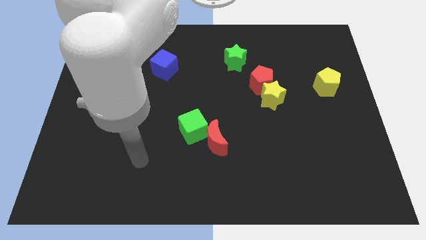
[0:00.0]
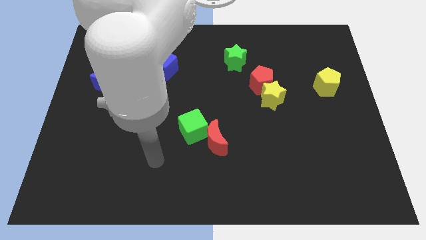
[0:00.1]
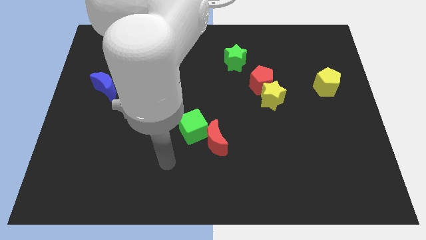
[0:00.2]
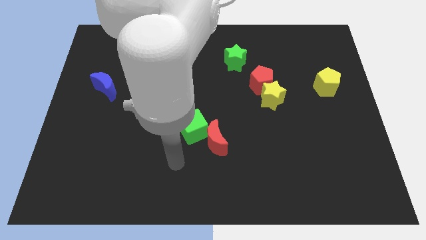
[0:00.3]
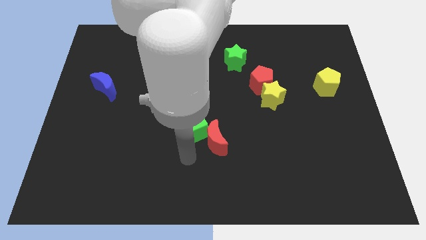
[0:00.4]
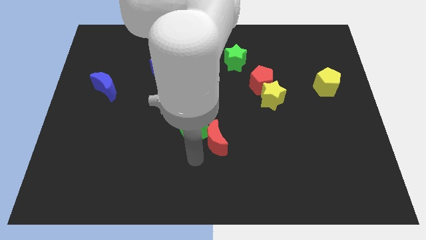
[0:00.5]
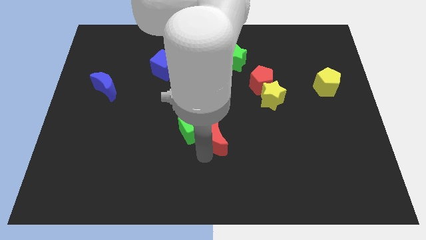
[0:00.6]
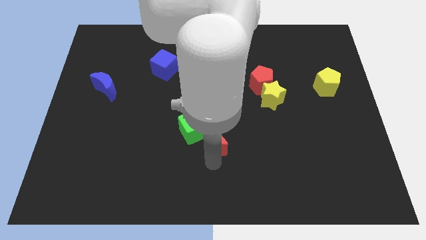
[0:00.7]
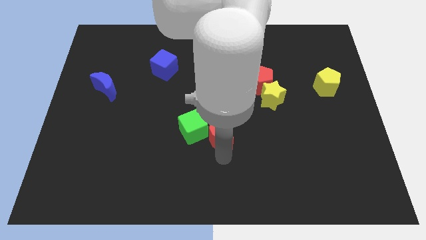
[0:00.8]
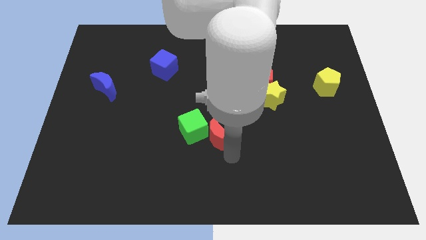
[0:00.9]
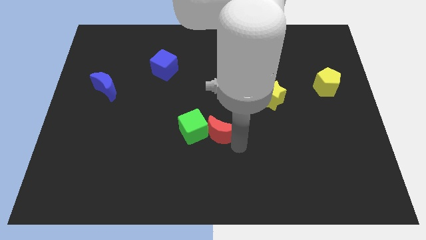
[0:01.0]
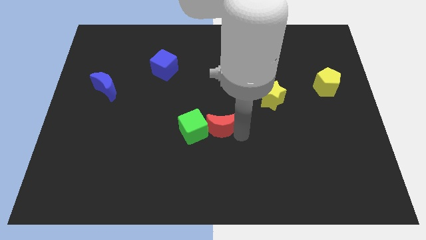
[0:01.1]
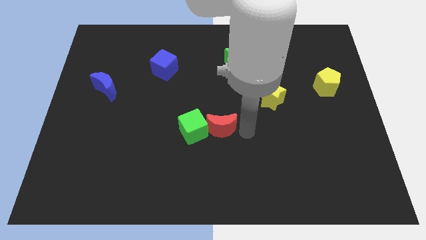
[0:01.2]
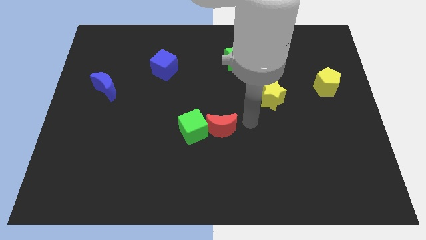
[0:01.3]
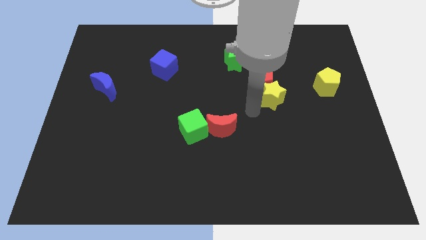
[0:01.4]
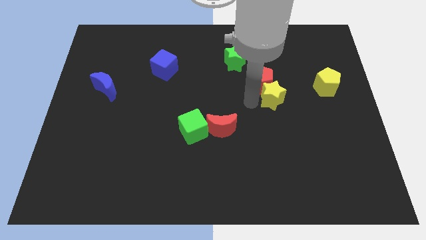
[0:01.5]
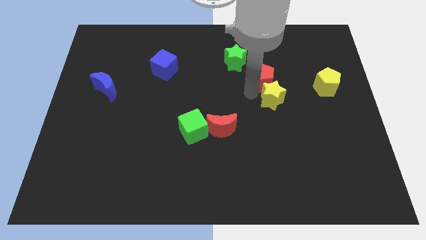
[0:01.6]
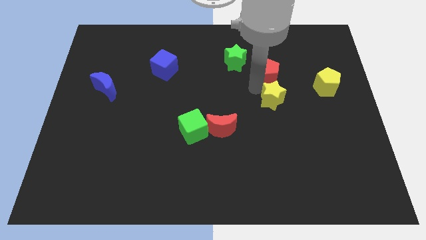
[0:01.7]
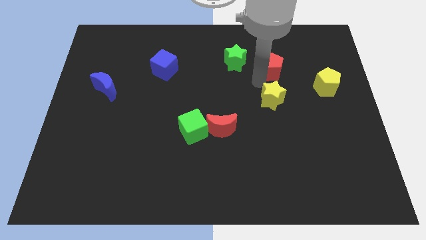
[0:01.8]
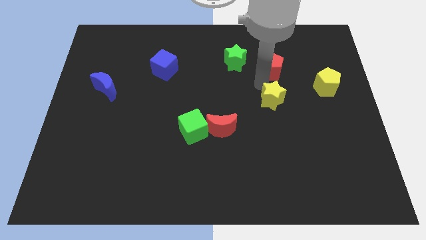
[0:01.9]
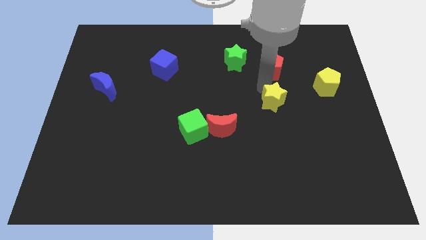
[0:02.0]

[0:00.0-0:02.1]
pull the yellow star apart from the red pentagon

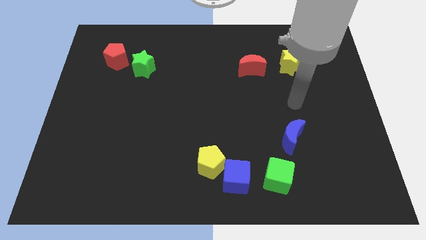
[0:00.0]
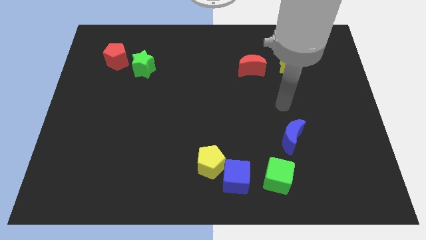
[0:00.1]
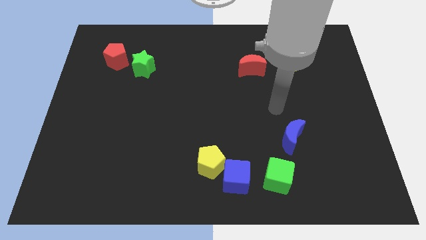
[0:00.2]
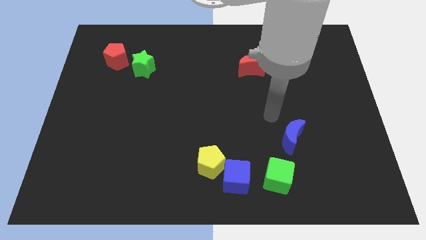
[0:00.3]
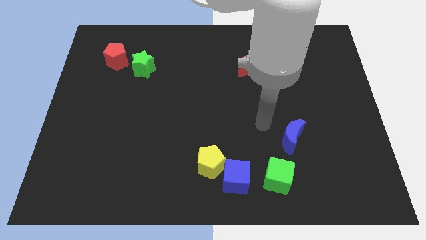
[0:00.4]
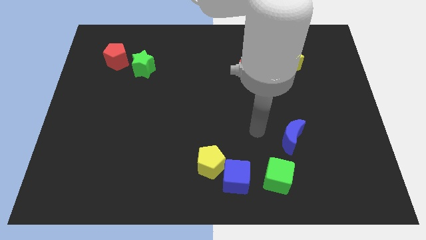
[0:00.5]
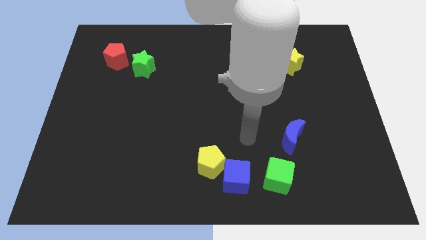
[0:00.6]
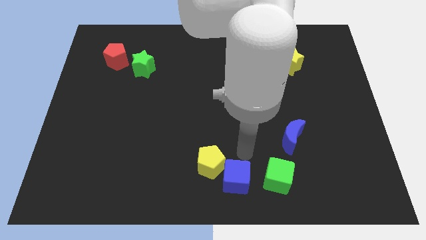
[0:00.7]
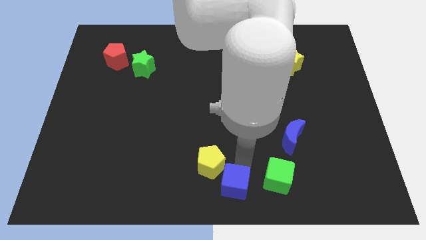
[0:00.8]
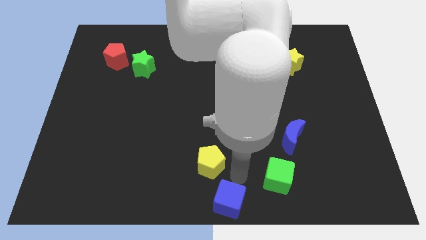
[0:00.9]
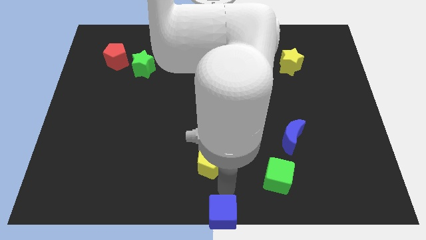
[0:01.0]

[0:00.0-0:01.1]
pull the yellow pentagon apart from the blue cube

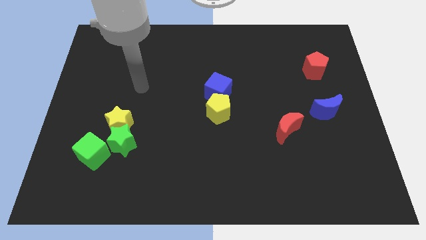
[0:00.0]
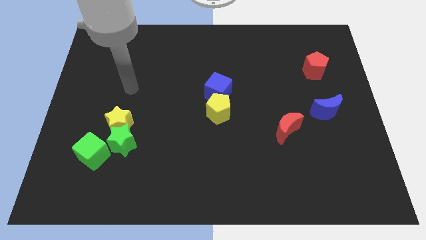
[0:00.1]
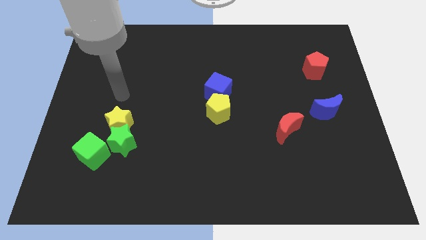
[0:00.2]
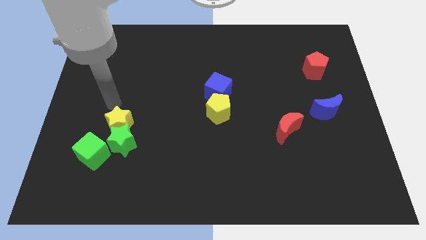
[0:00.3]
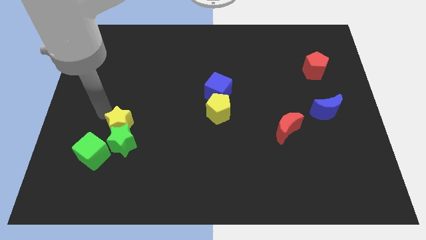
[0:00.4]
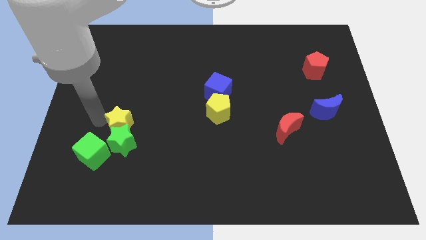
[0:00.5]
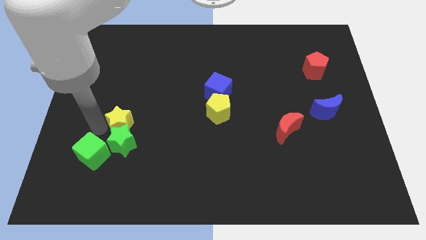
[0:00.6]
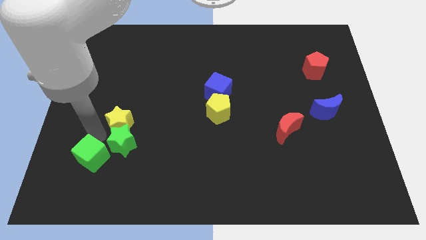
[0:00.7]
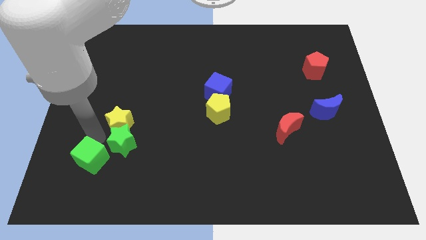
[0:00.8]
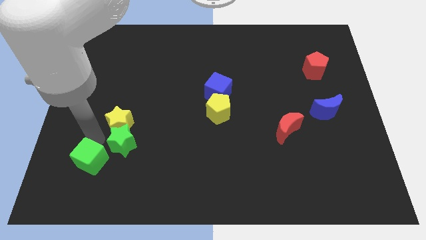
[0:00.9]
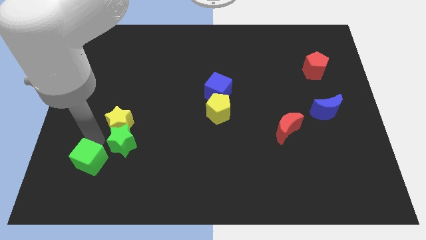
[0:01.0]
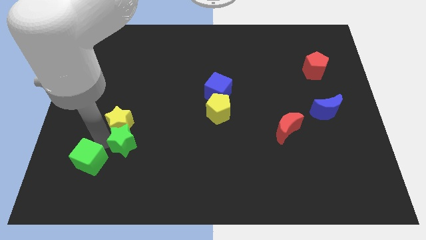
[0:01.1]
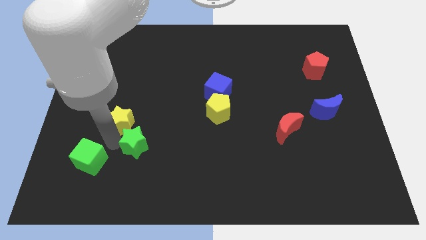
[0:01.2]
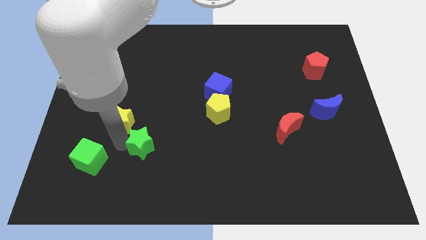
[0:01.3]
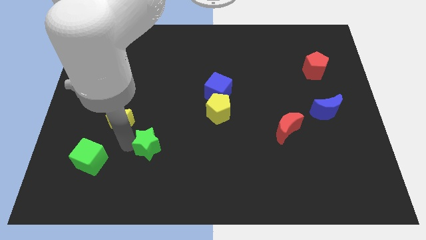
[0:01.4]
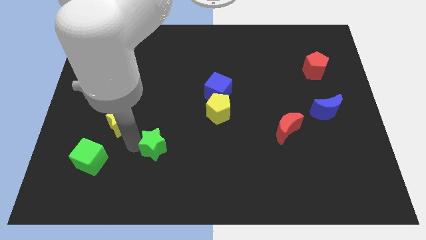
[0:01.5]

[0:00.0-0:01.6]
separate the green star from the yellow star and green cube

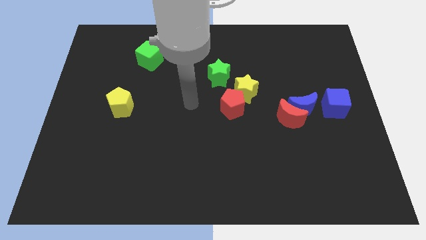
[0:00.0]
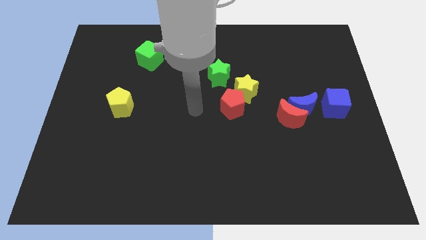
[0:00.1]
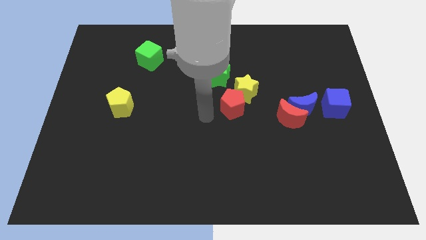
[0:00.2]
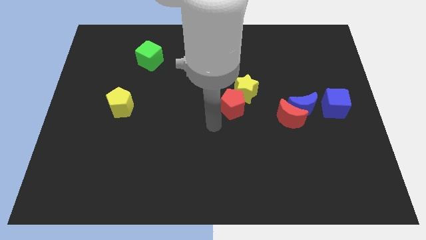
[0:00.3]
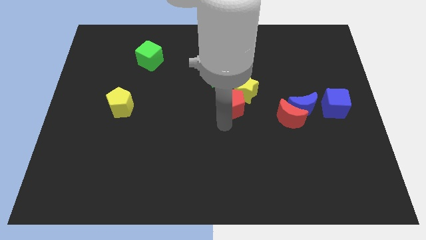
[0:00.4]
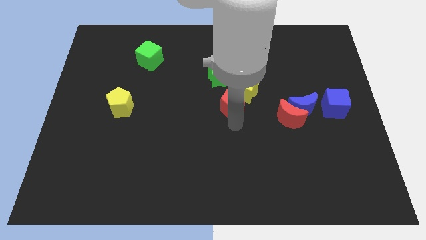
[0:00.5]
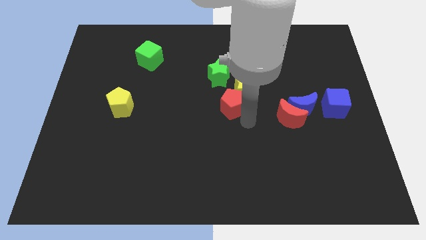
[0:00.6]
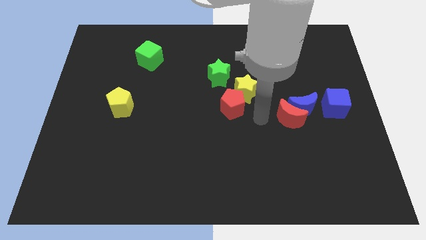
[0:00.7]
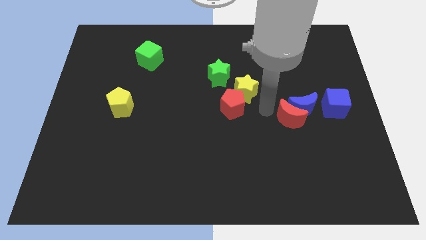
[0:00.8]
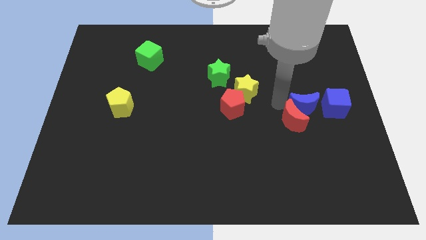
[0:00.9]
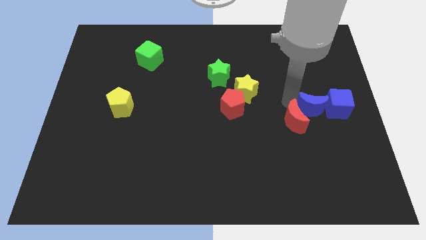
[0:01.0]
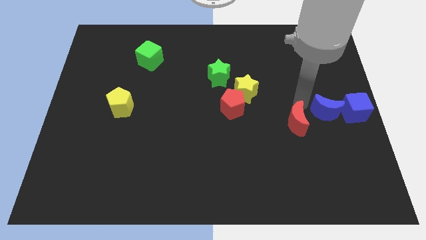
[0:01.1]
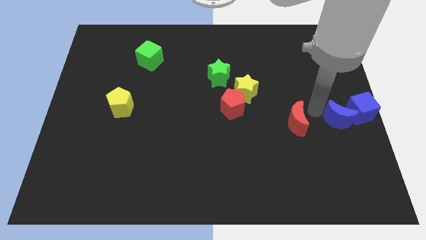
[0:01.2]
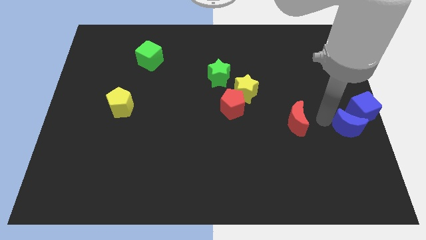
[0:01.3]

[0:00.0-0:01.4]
pull the red moon apart from the blue moon

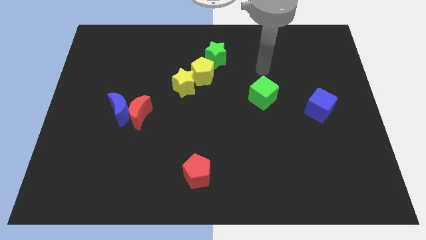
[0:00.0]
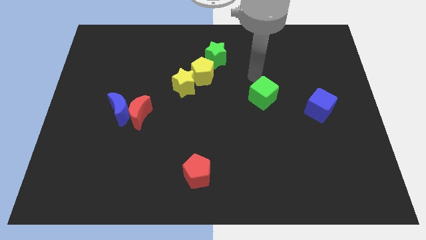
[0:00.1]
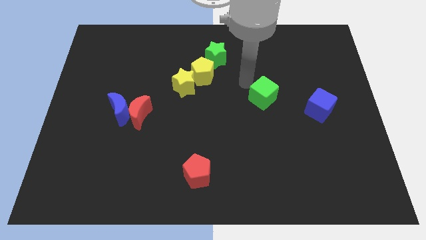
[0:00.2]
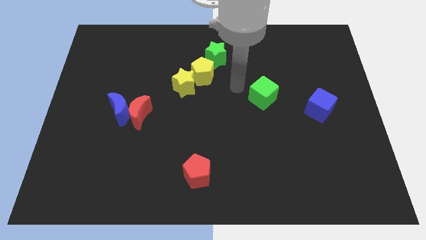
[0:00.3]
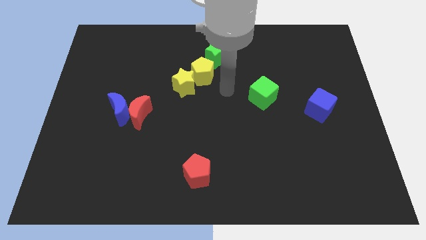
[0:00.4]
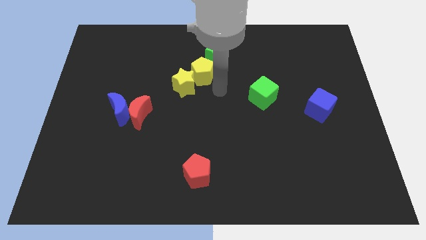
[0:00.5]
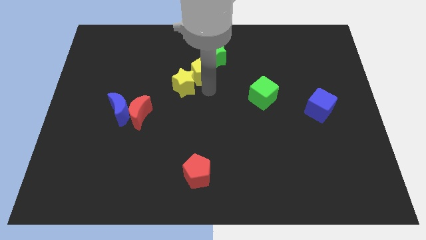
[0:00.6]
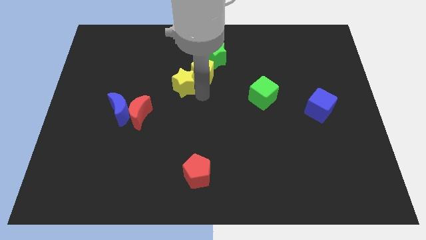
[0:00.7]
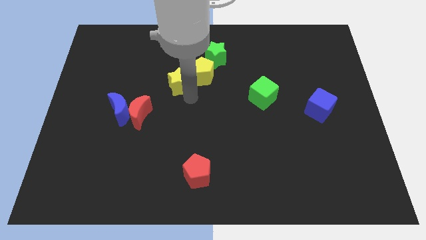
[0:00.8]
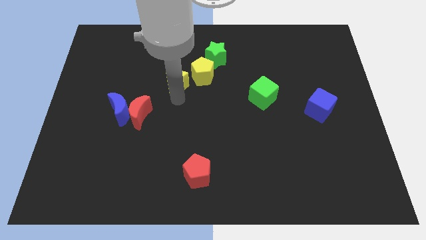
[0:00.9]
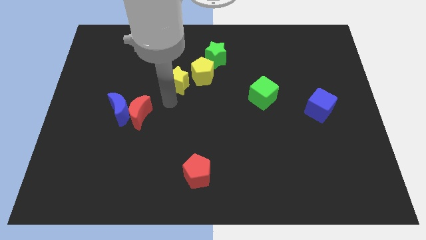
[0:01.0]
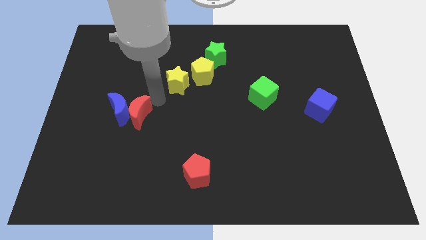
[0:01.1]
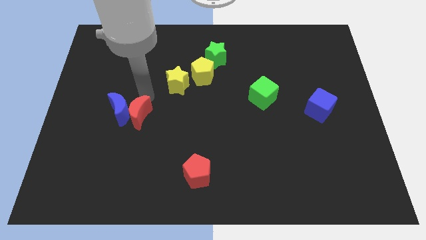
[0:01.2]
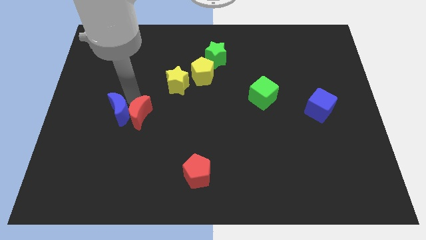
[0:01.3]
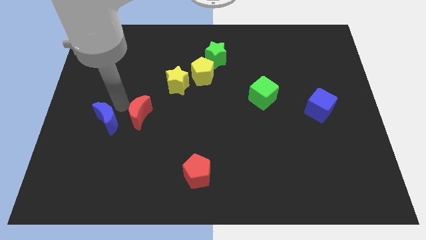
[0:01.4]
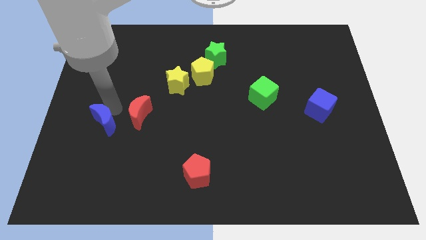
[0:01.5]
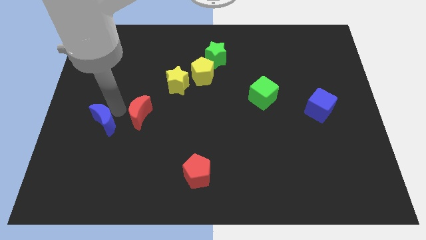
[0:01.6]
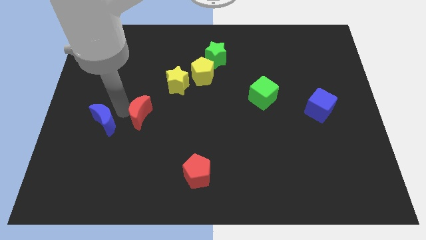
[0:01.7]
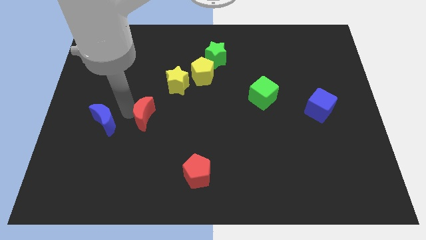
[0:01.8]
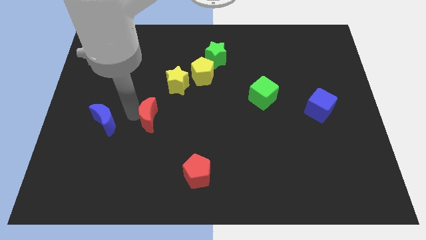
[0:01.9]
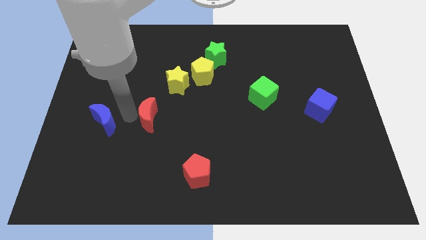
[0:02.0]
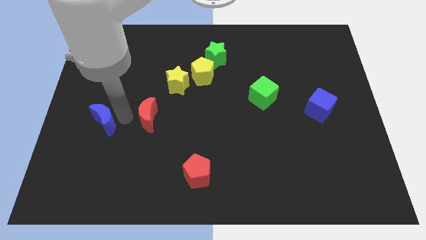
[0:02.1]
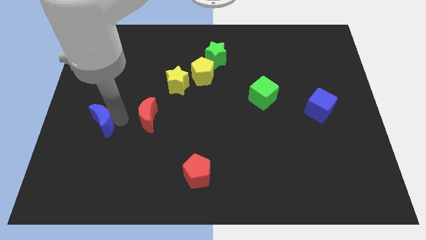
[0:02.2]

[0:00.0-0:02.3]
separate the red moon from the blue moon

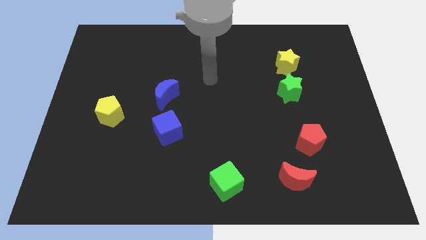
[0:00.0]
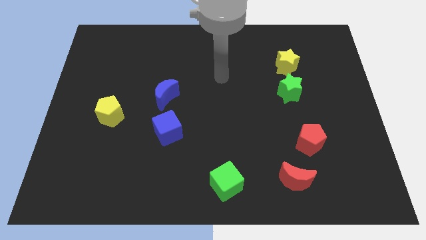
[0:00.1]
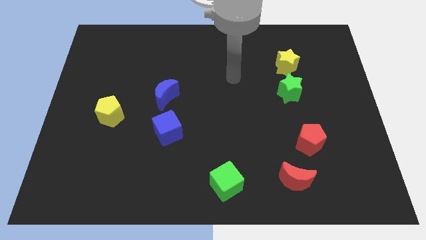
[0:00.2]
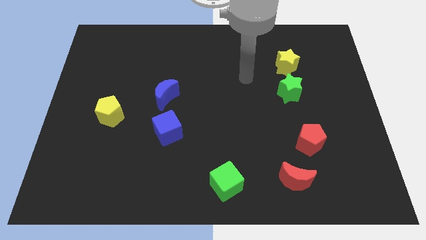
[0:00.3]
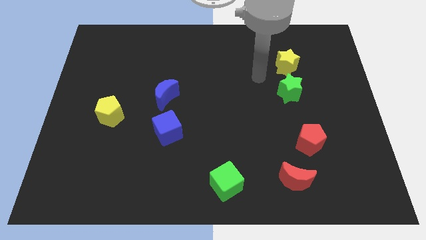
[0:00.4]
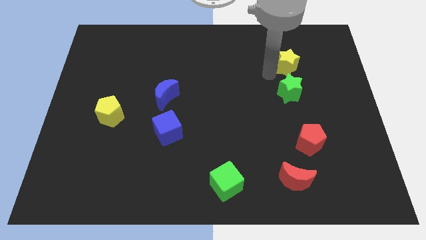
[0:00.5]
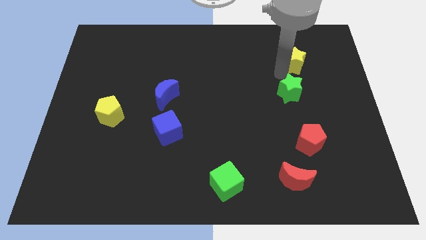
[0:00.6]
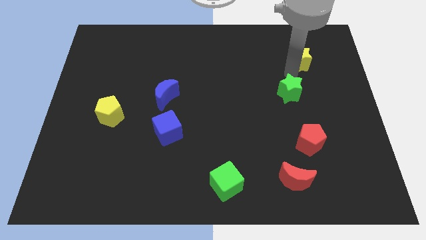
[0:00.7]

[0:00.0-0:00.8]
separate the green star from the yellow star
